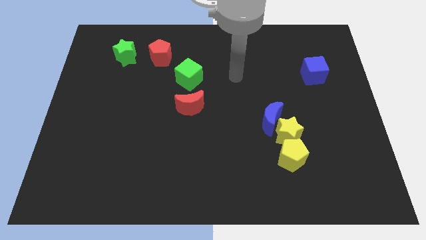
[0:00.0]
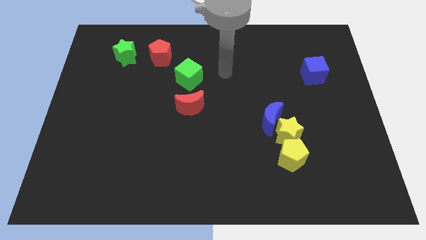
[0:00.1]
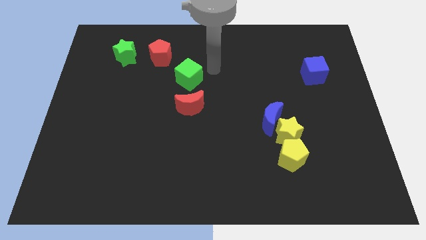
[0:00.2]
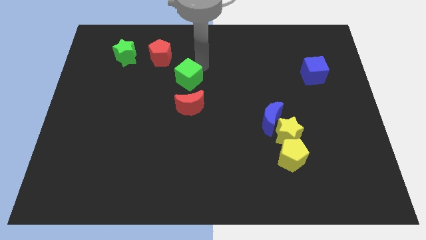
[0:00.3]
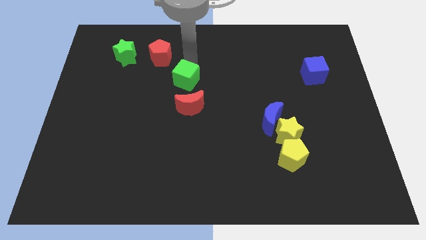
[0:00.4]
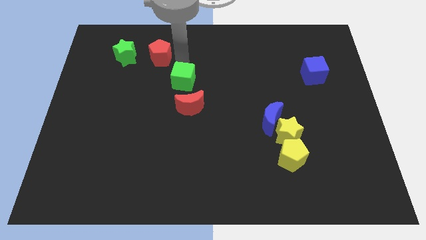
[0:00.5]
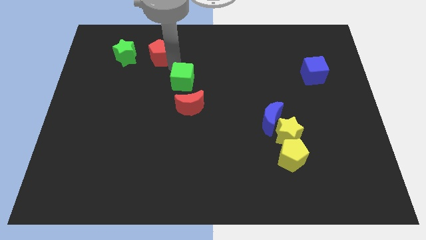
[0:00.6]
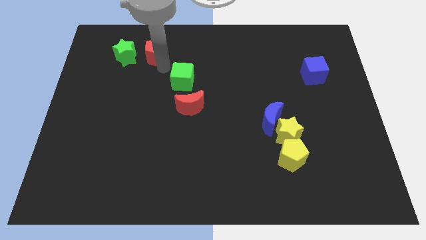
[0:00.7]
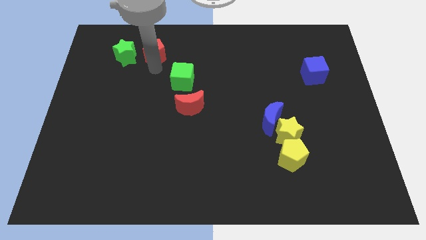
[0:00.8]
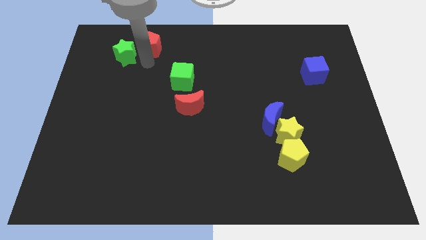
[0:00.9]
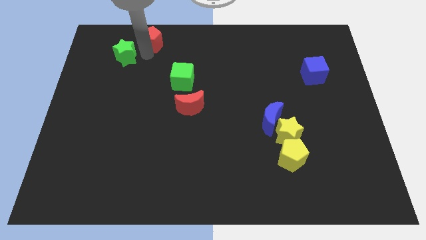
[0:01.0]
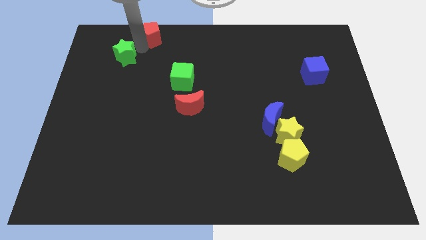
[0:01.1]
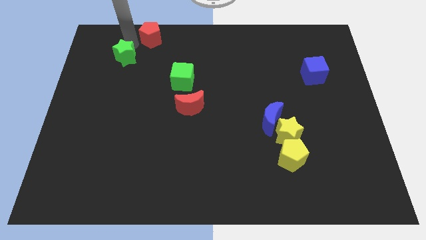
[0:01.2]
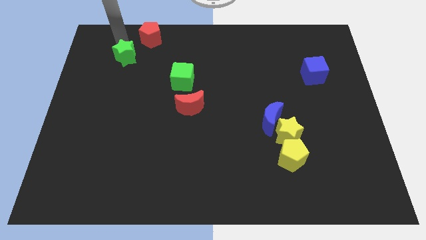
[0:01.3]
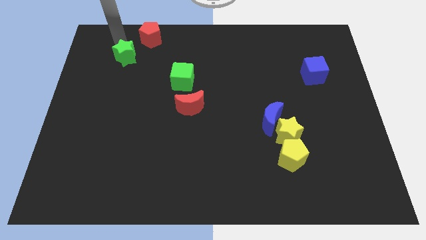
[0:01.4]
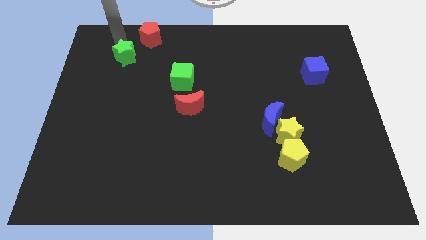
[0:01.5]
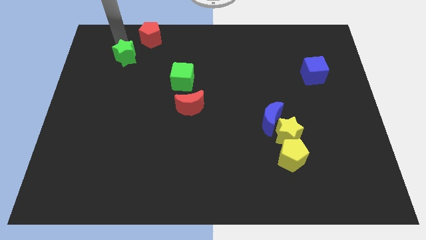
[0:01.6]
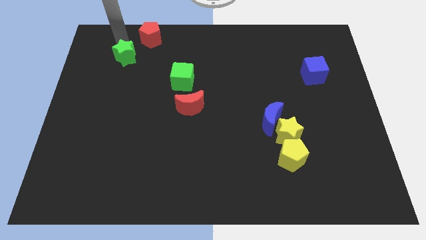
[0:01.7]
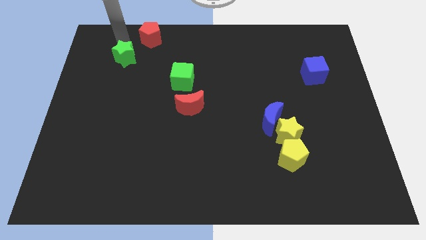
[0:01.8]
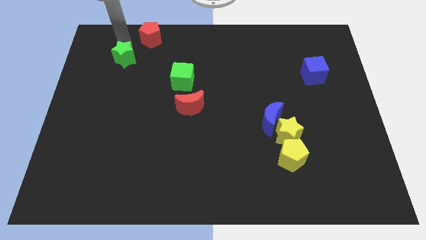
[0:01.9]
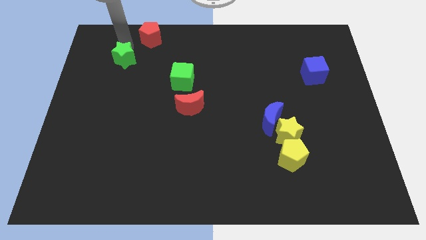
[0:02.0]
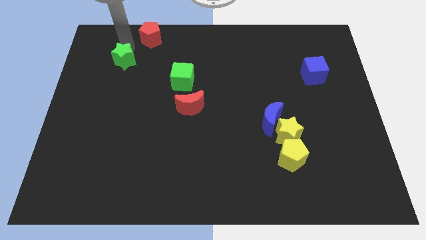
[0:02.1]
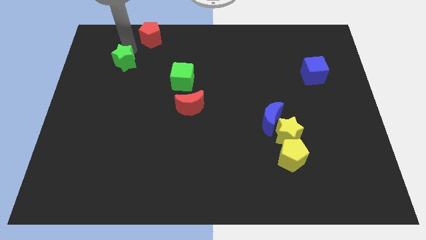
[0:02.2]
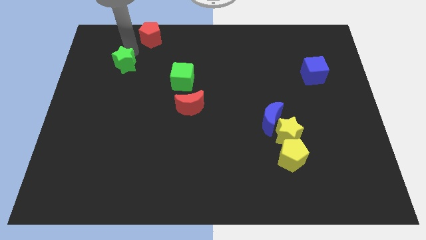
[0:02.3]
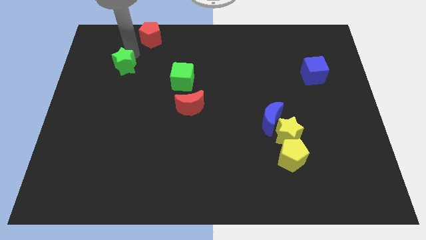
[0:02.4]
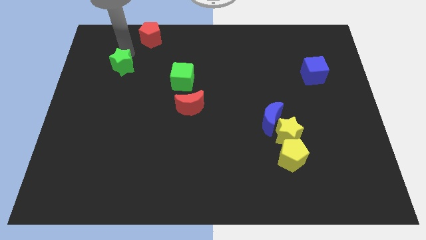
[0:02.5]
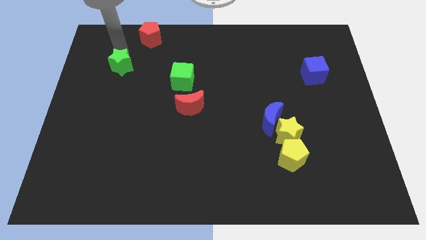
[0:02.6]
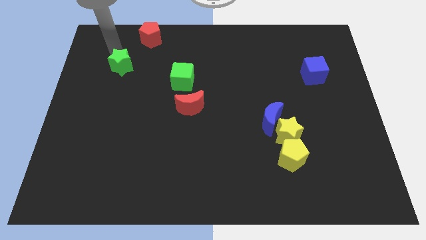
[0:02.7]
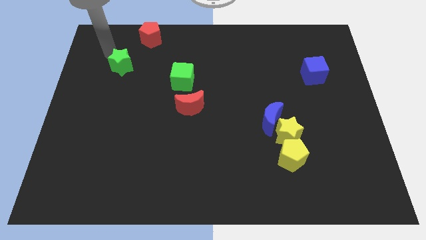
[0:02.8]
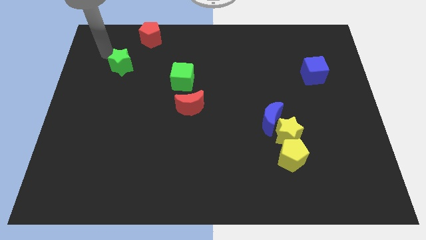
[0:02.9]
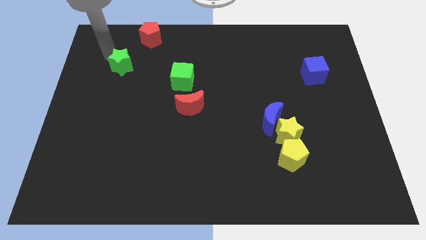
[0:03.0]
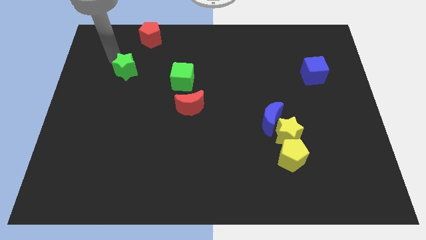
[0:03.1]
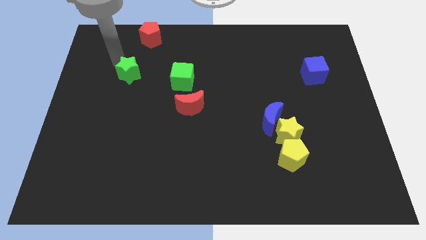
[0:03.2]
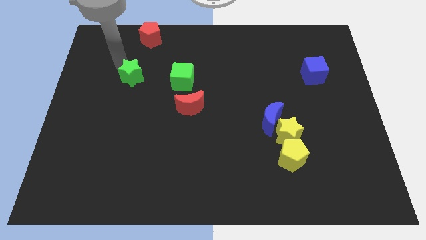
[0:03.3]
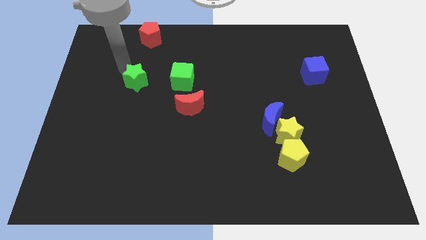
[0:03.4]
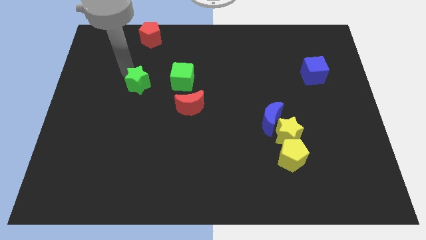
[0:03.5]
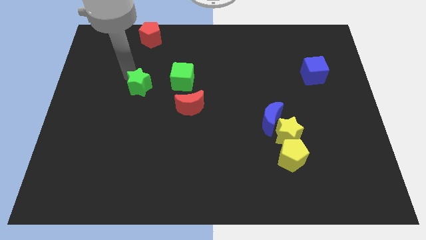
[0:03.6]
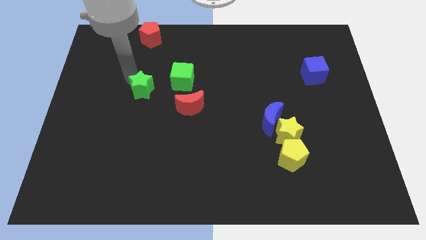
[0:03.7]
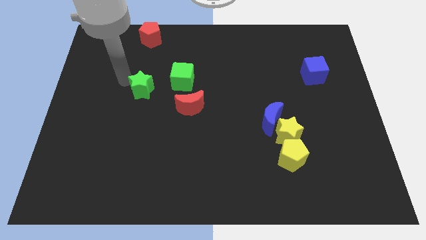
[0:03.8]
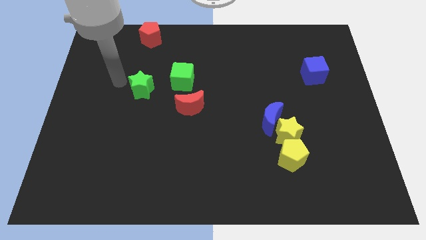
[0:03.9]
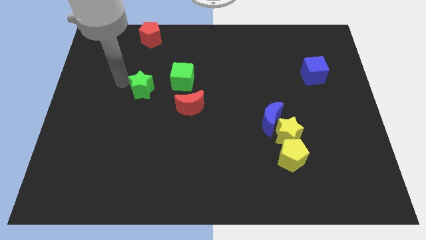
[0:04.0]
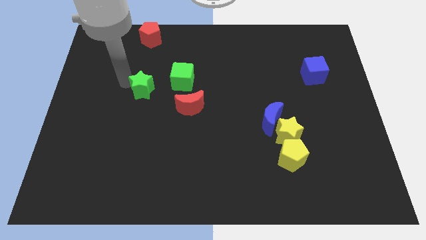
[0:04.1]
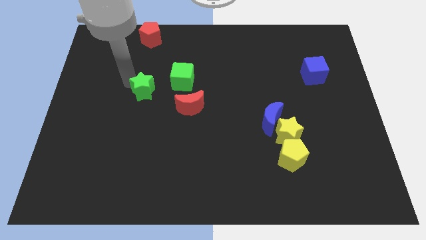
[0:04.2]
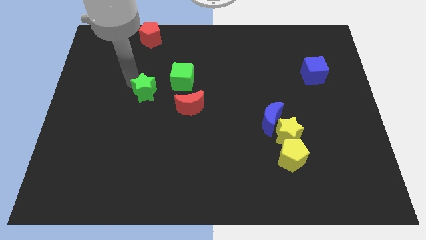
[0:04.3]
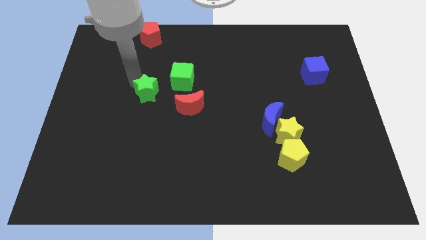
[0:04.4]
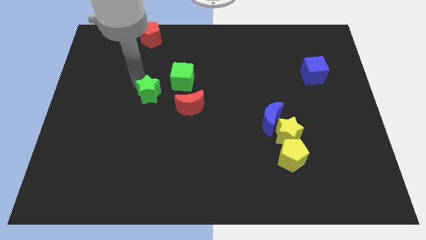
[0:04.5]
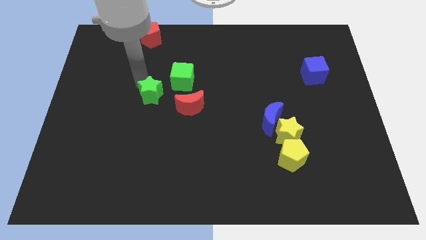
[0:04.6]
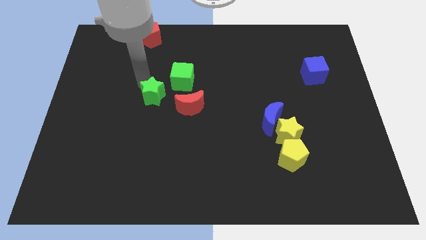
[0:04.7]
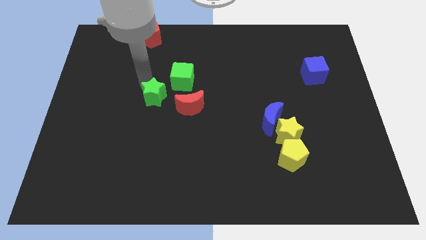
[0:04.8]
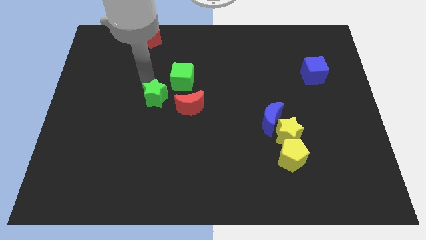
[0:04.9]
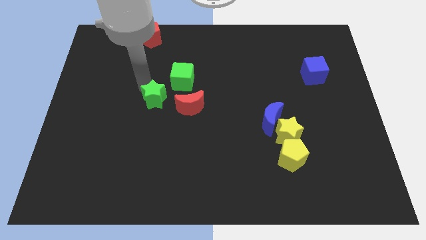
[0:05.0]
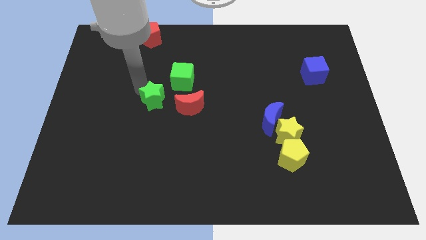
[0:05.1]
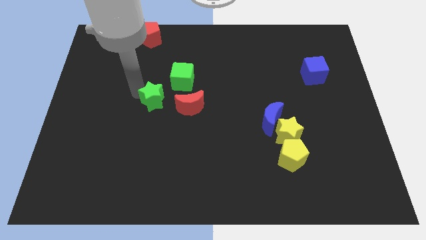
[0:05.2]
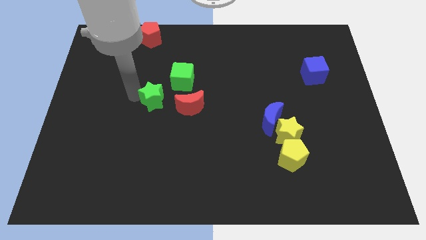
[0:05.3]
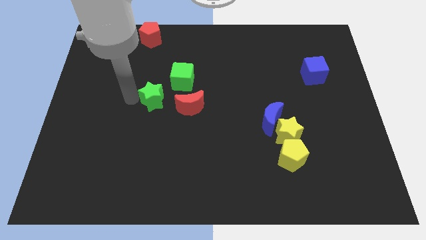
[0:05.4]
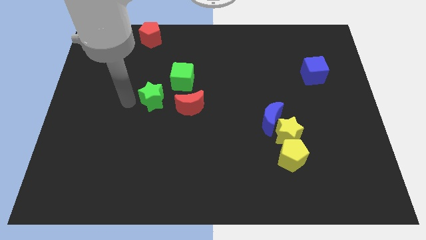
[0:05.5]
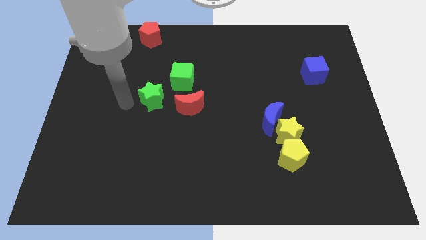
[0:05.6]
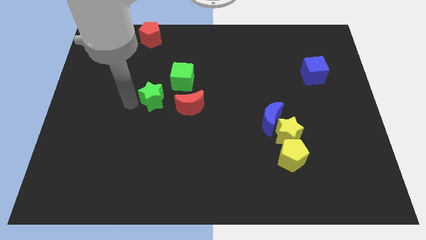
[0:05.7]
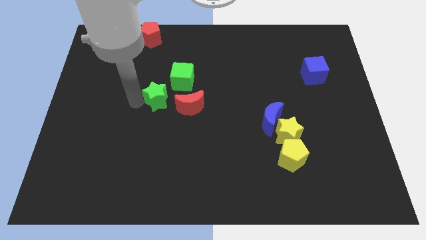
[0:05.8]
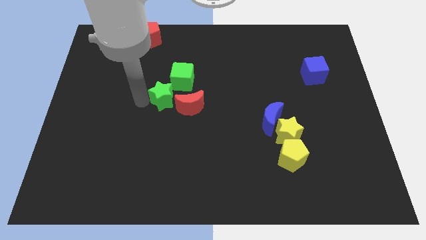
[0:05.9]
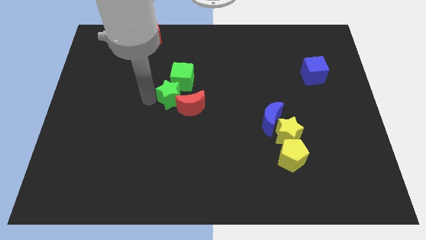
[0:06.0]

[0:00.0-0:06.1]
move the green star next to the red moon
